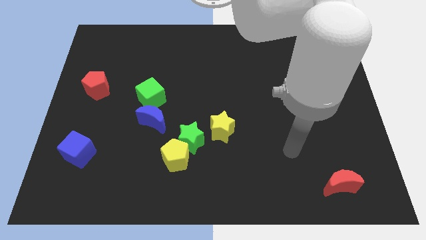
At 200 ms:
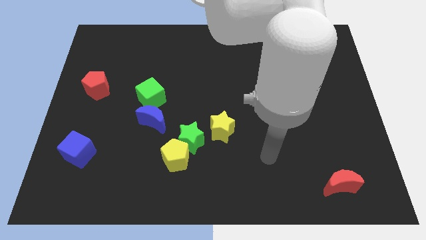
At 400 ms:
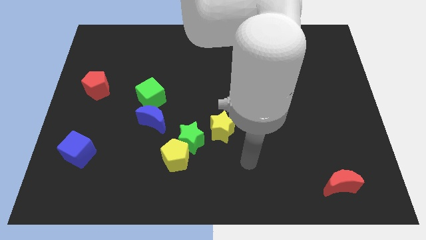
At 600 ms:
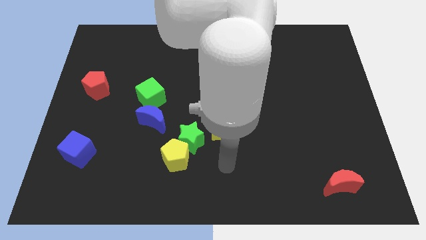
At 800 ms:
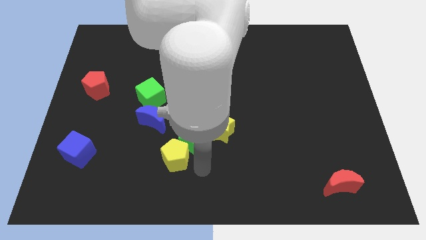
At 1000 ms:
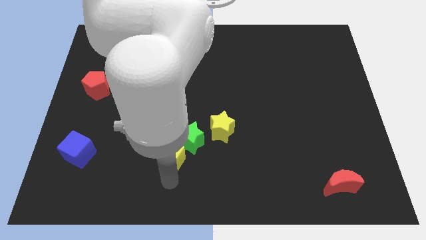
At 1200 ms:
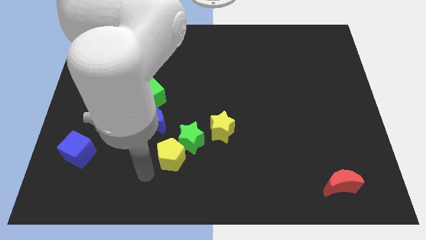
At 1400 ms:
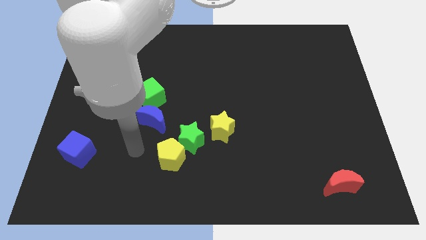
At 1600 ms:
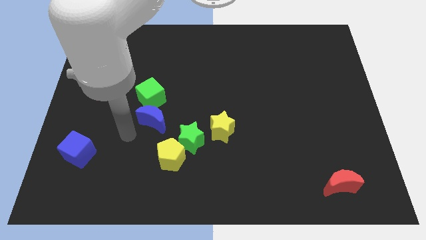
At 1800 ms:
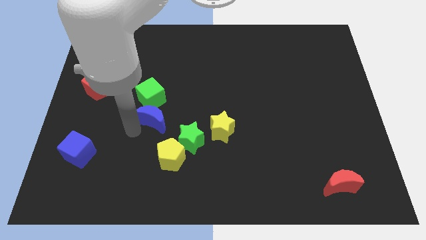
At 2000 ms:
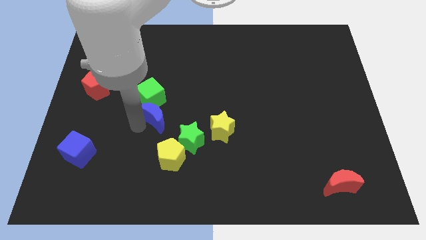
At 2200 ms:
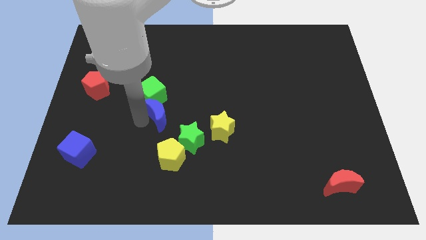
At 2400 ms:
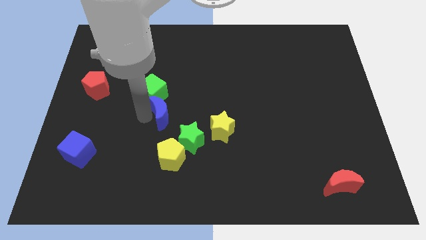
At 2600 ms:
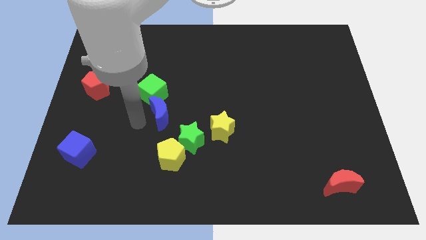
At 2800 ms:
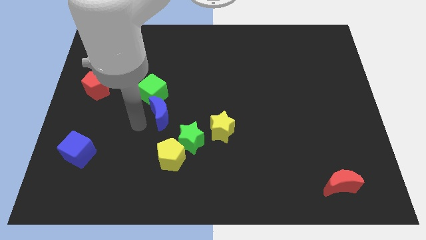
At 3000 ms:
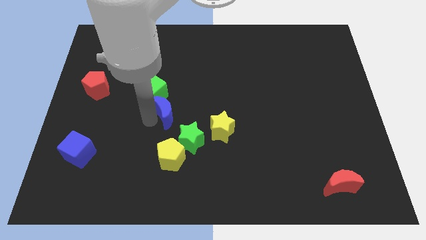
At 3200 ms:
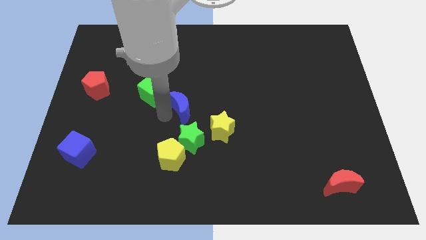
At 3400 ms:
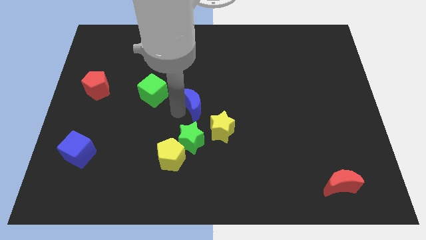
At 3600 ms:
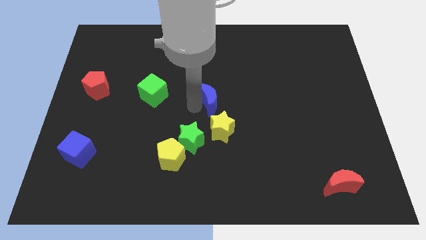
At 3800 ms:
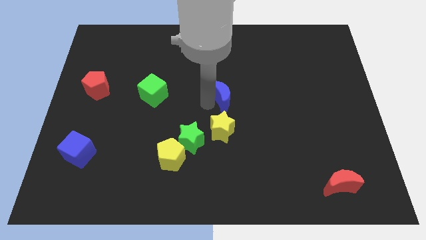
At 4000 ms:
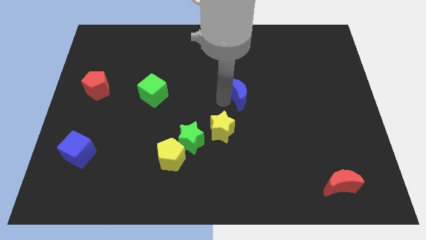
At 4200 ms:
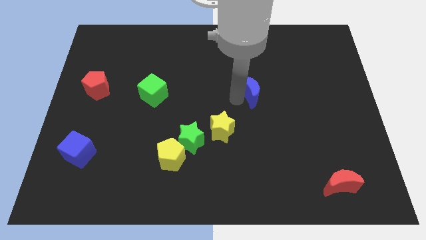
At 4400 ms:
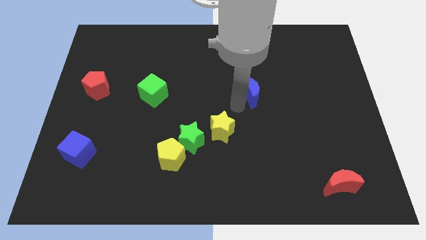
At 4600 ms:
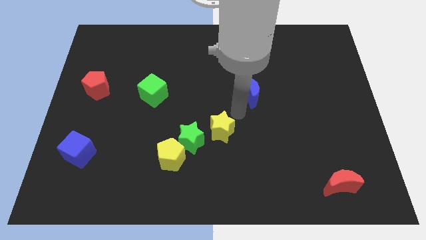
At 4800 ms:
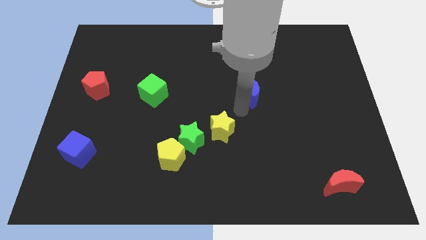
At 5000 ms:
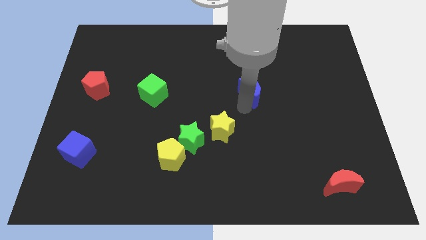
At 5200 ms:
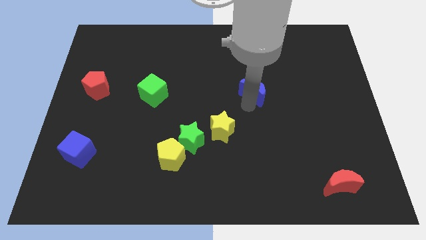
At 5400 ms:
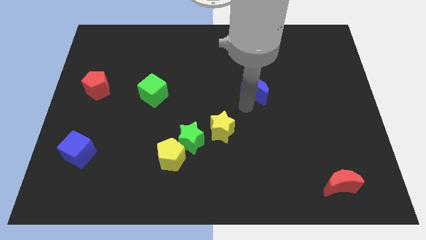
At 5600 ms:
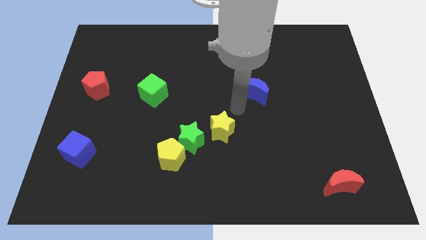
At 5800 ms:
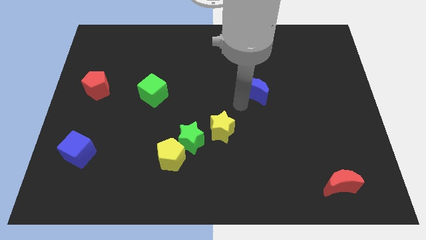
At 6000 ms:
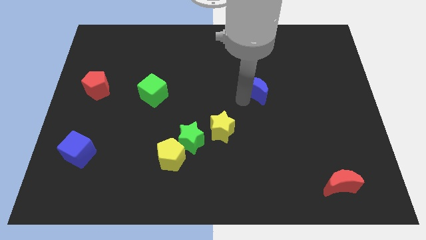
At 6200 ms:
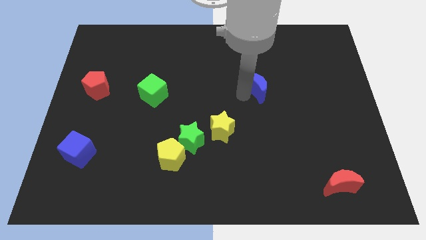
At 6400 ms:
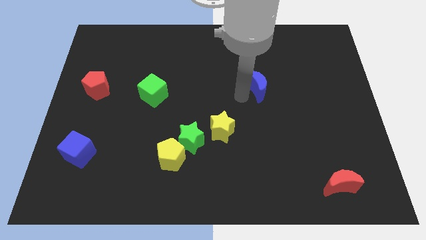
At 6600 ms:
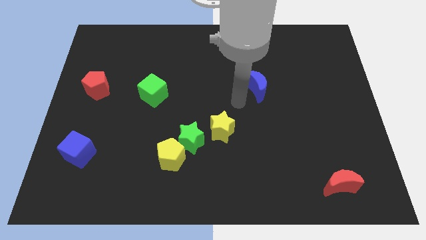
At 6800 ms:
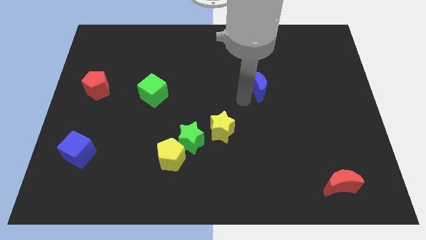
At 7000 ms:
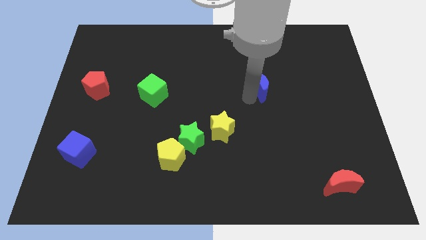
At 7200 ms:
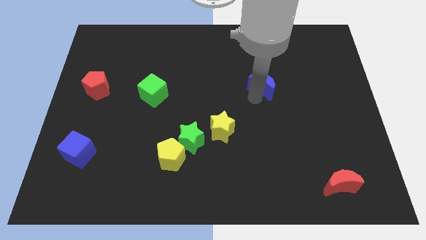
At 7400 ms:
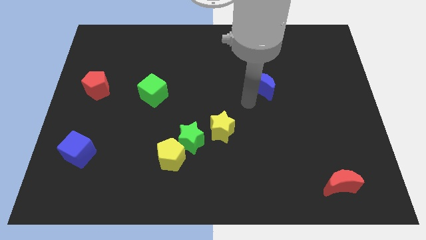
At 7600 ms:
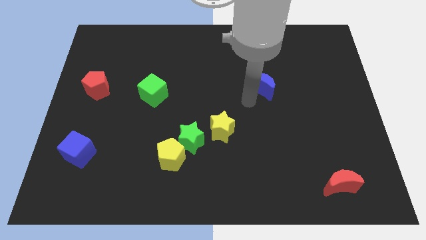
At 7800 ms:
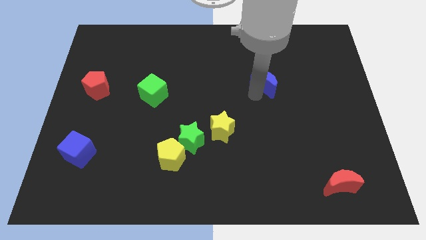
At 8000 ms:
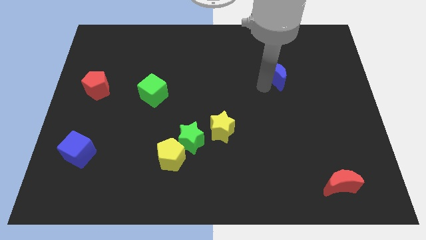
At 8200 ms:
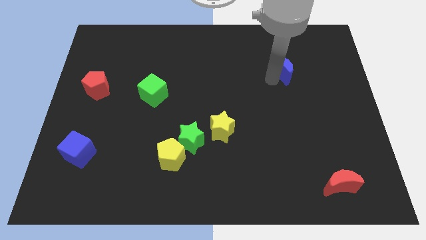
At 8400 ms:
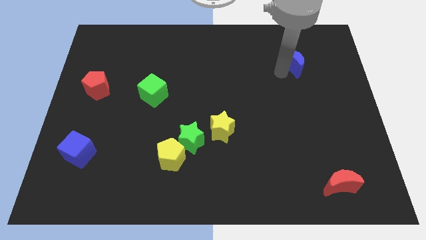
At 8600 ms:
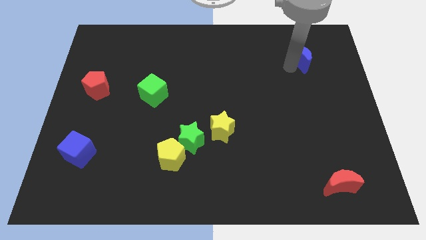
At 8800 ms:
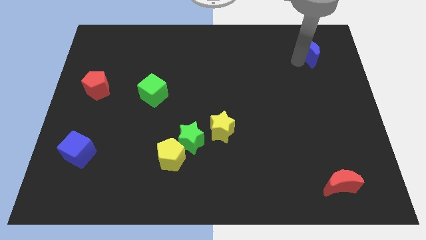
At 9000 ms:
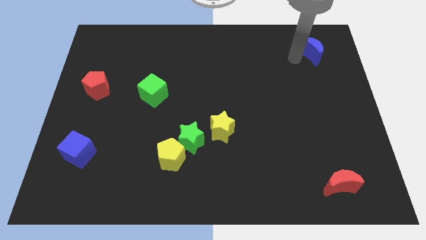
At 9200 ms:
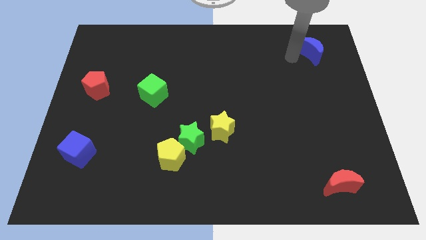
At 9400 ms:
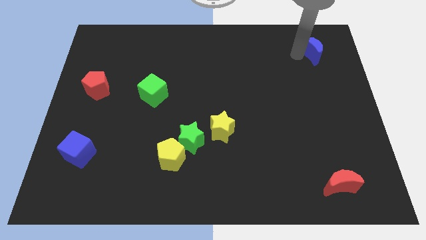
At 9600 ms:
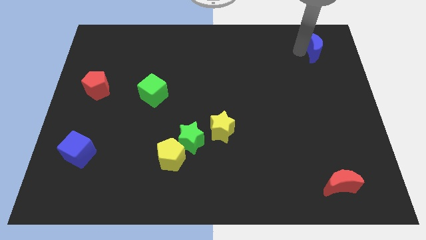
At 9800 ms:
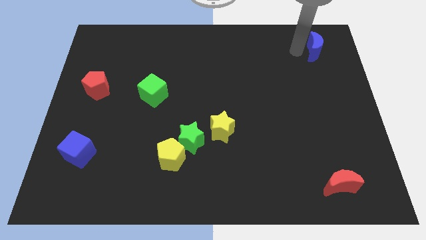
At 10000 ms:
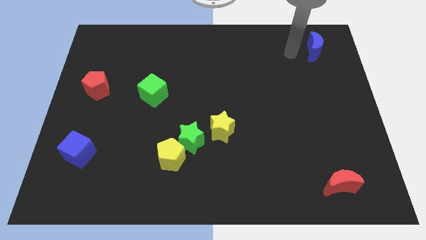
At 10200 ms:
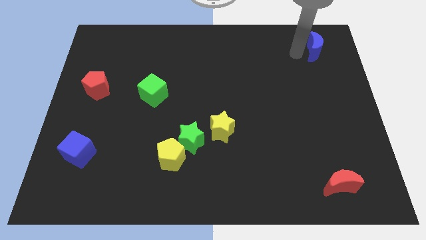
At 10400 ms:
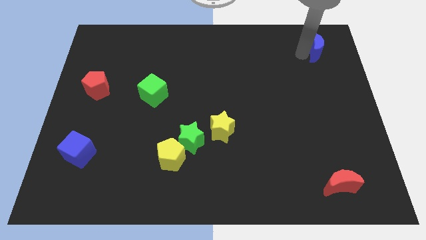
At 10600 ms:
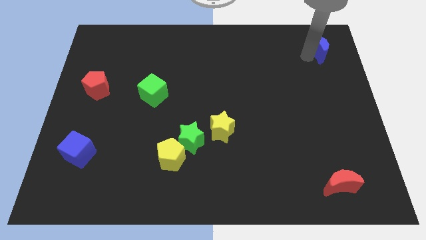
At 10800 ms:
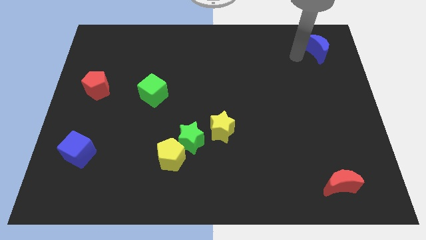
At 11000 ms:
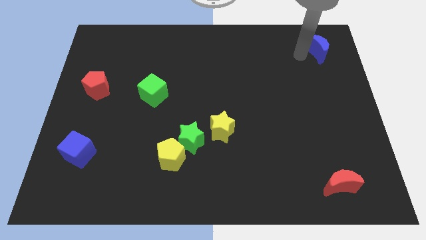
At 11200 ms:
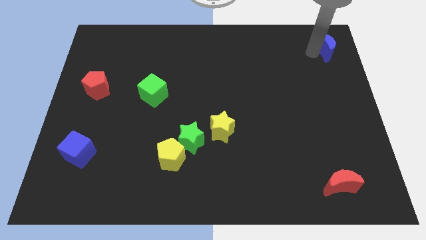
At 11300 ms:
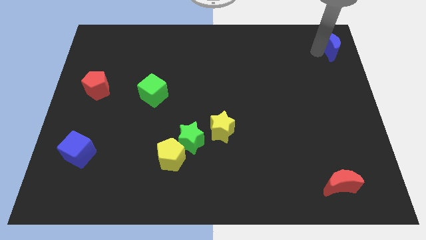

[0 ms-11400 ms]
push the blue moon to the top right corner

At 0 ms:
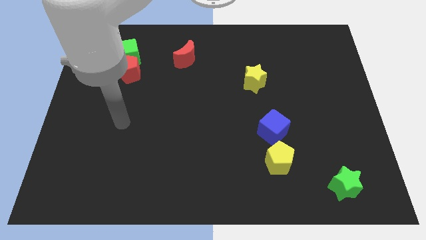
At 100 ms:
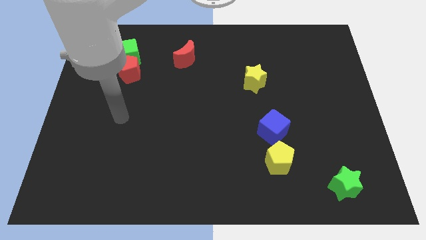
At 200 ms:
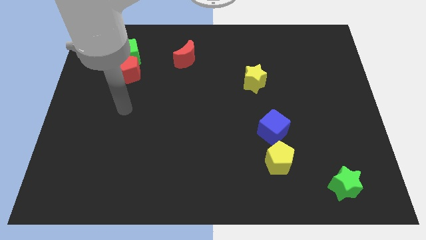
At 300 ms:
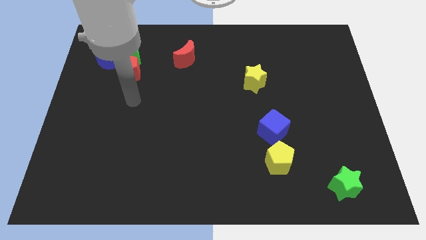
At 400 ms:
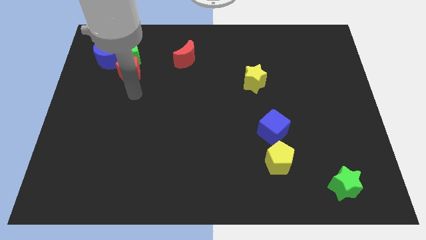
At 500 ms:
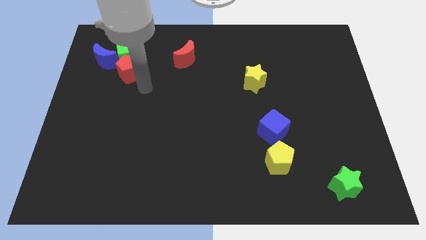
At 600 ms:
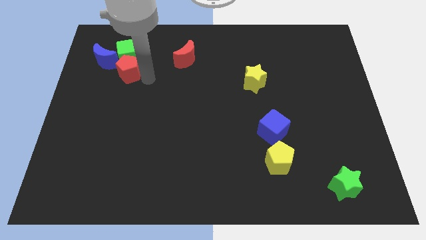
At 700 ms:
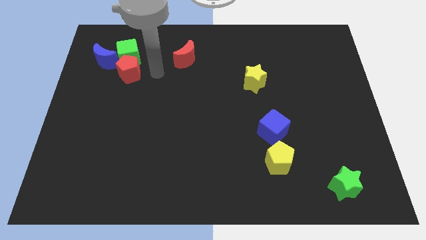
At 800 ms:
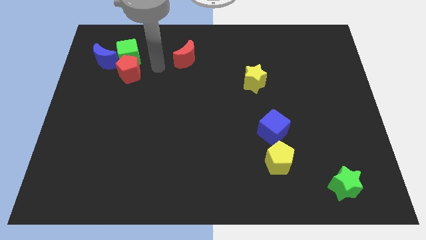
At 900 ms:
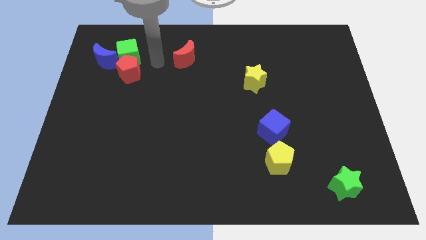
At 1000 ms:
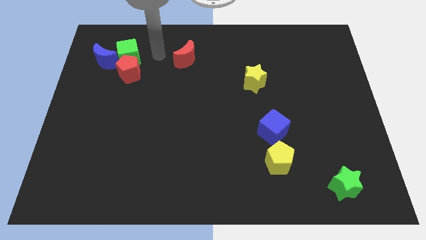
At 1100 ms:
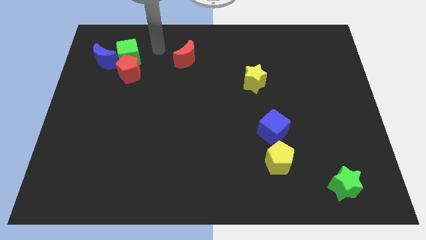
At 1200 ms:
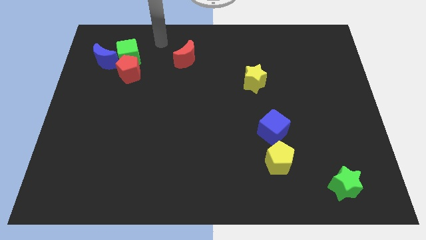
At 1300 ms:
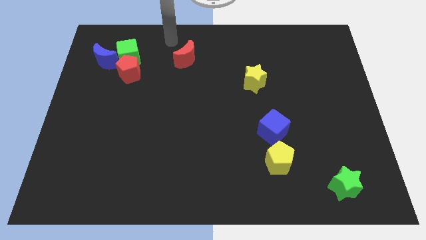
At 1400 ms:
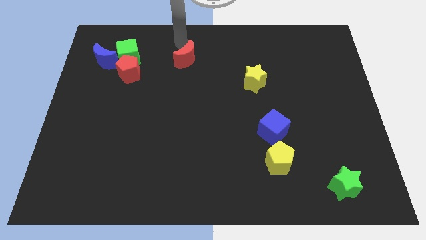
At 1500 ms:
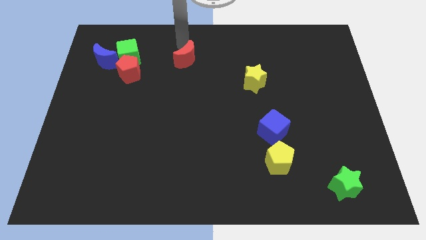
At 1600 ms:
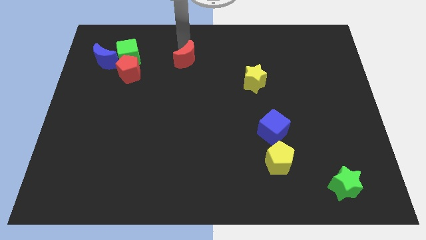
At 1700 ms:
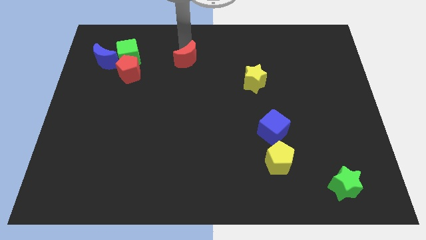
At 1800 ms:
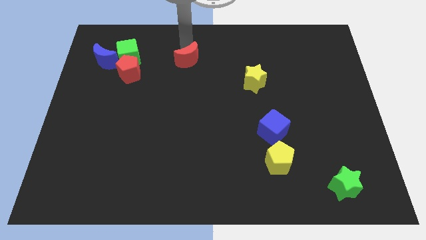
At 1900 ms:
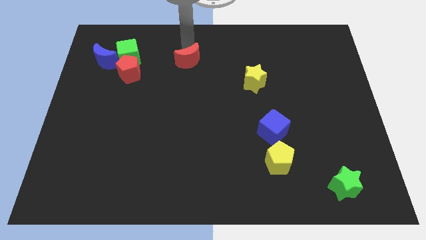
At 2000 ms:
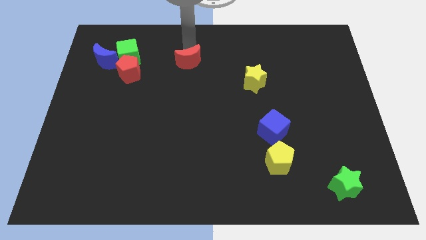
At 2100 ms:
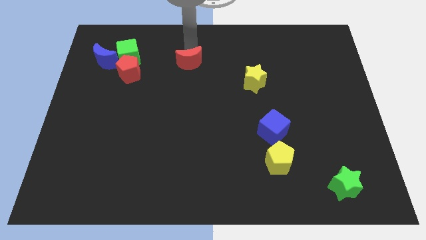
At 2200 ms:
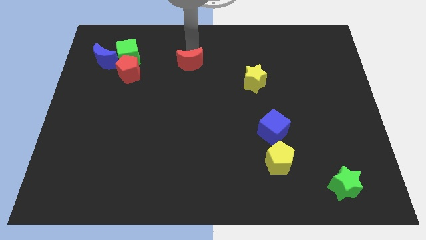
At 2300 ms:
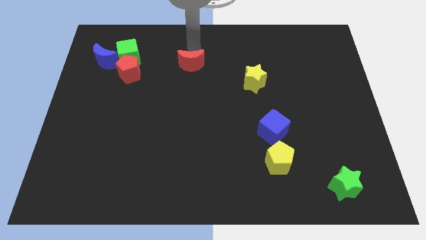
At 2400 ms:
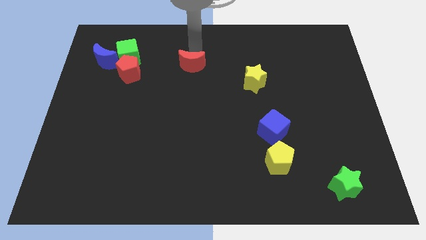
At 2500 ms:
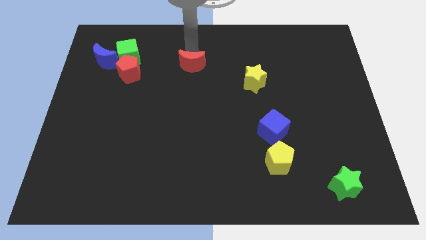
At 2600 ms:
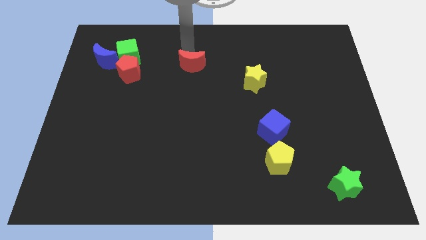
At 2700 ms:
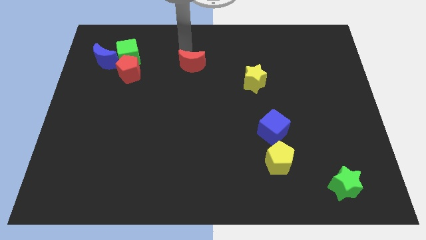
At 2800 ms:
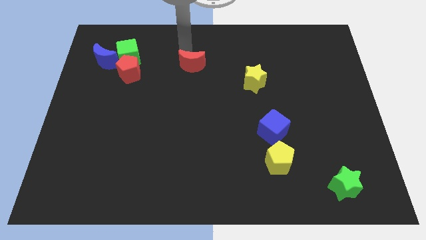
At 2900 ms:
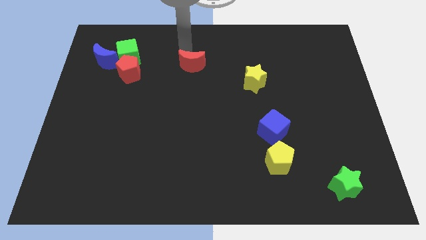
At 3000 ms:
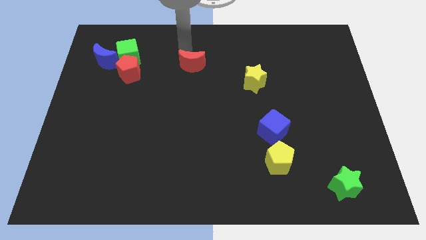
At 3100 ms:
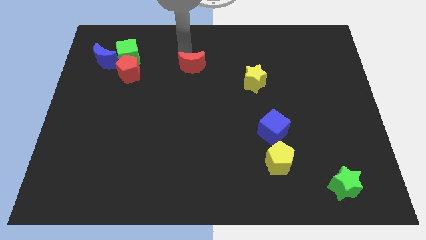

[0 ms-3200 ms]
push the red moon to the center of the board
